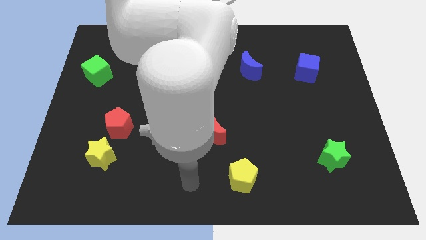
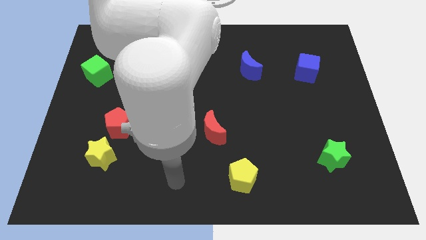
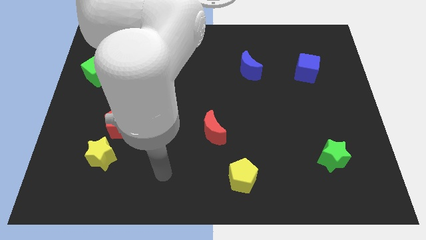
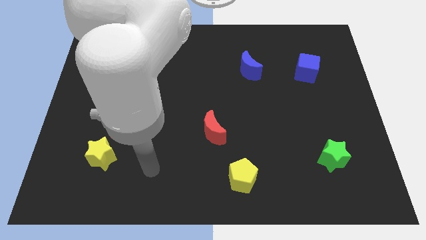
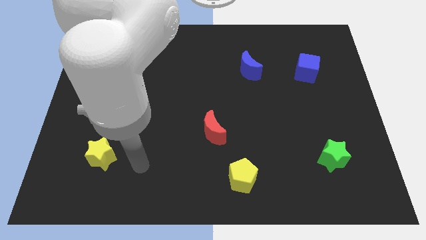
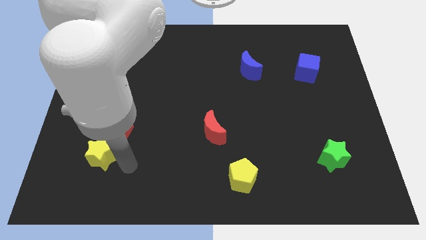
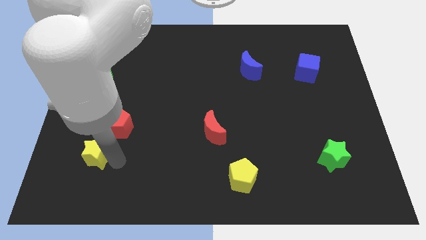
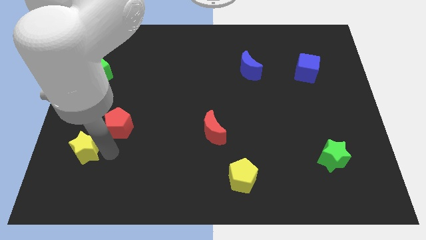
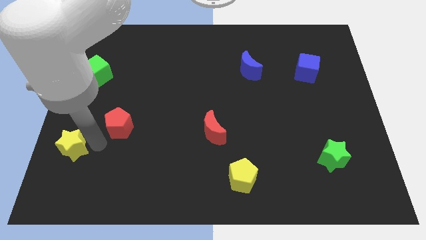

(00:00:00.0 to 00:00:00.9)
move the red pentagon away from the yellow star

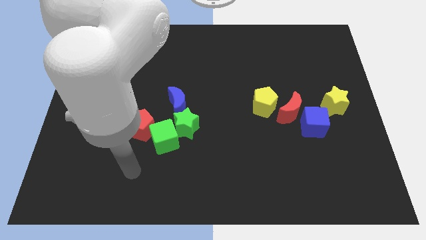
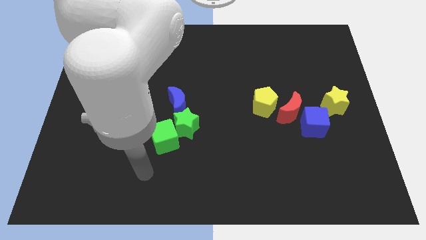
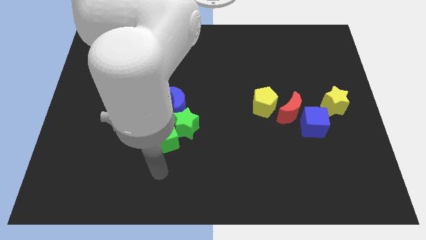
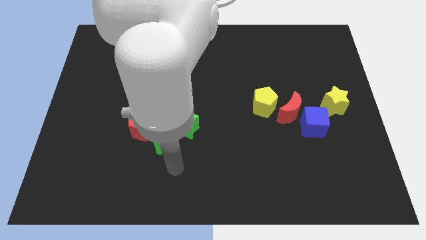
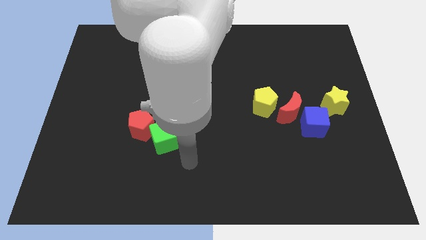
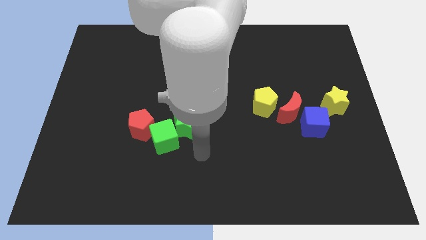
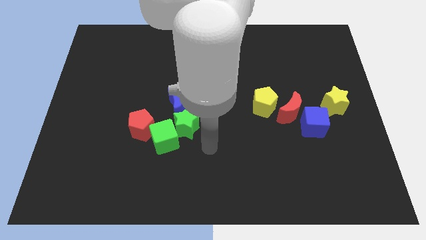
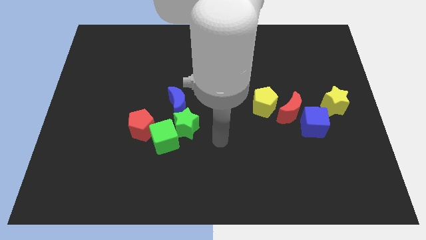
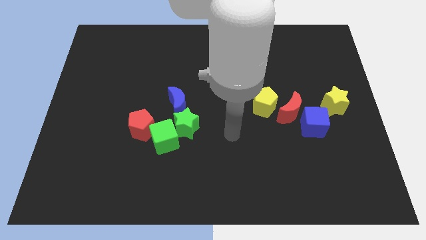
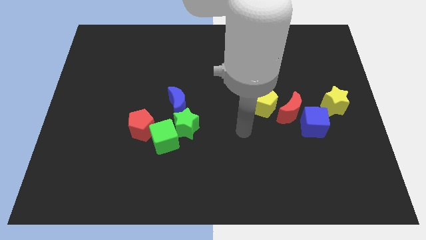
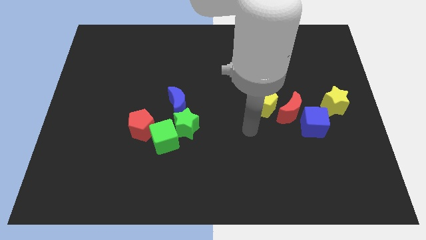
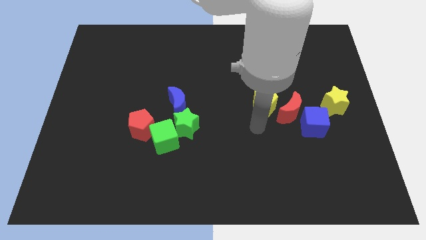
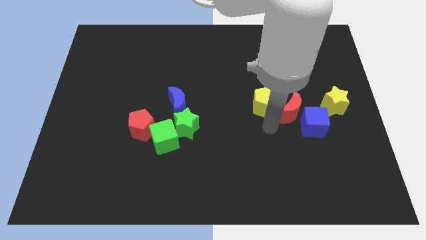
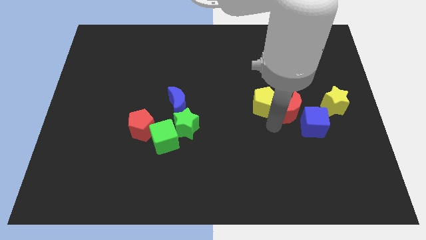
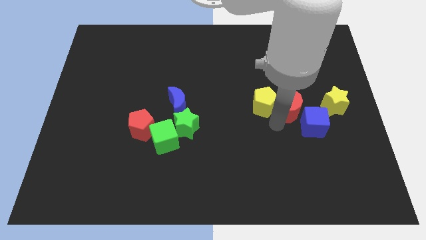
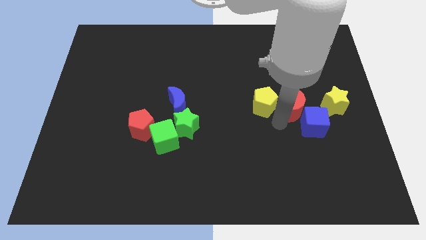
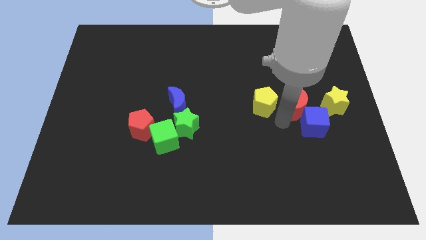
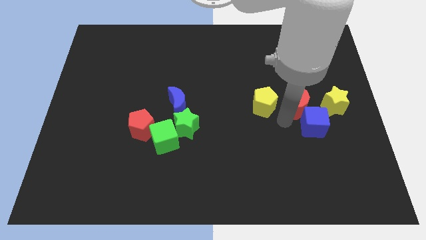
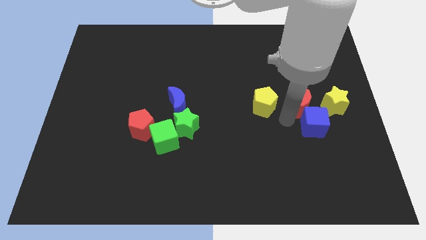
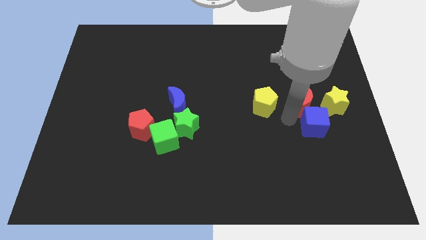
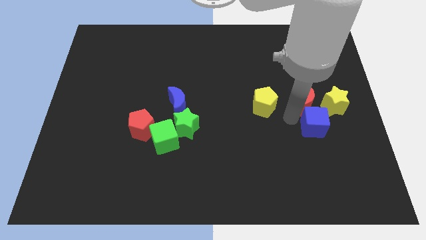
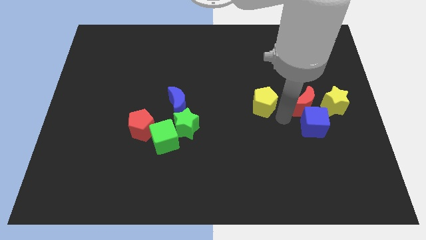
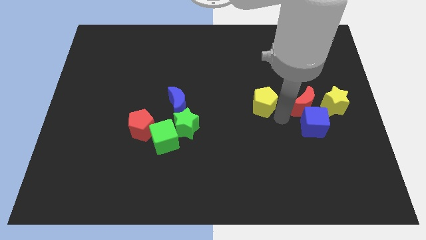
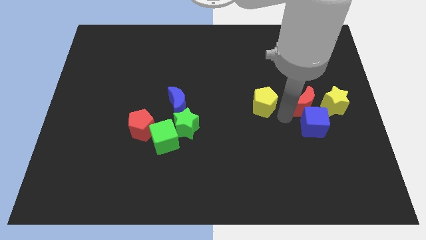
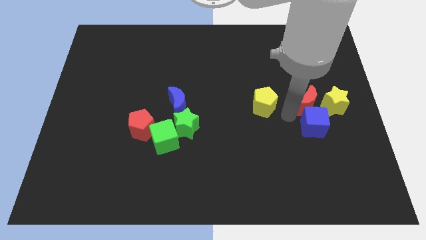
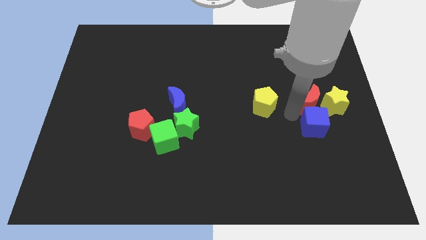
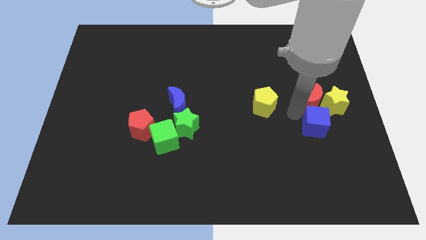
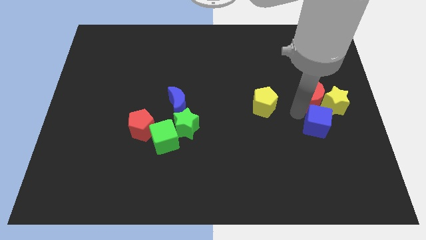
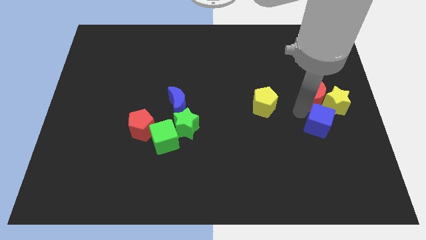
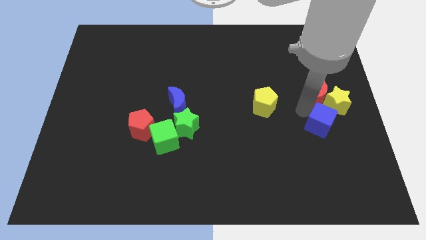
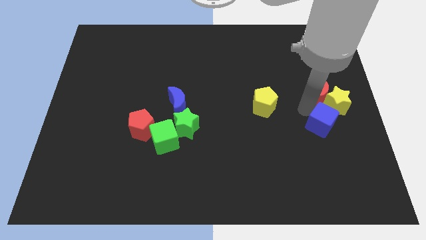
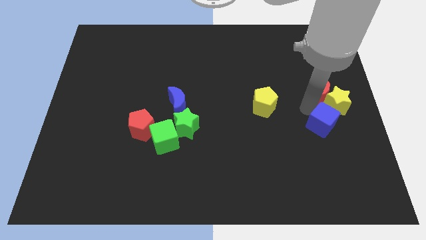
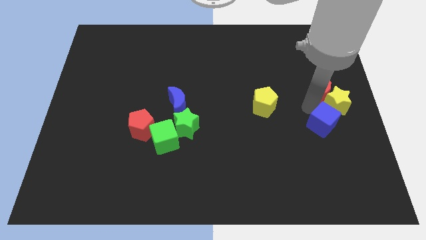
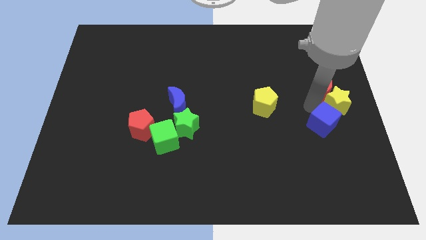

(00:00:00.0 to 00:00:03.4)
move the red moon away from the blue cube and yellow pentagon

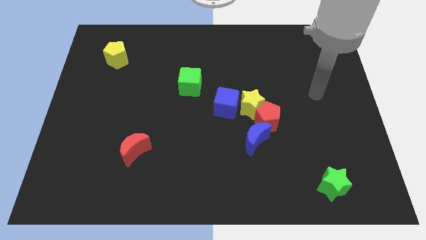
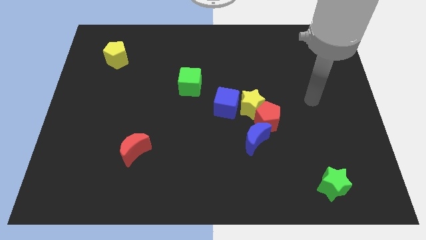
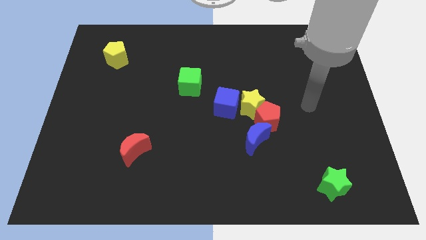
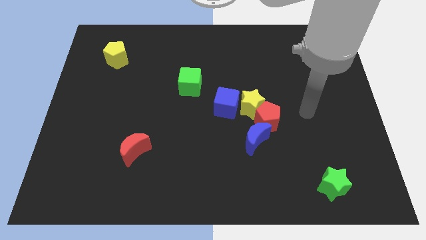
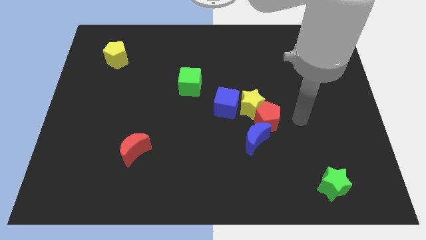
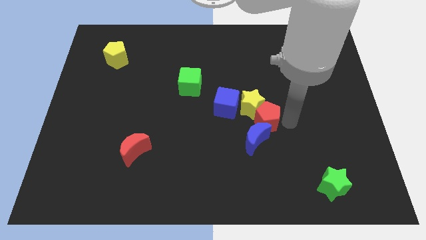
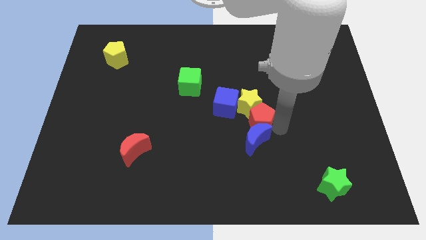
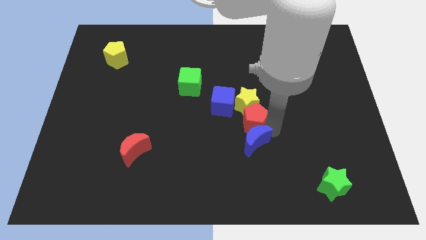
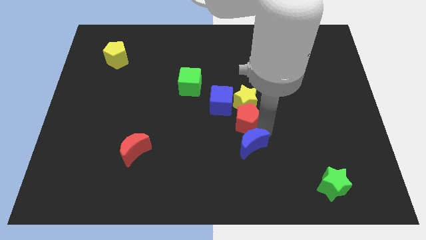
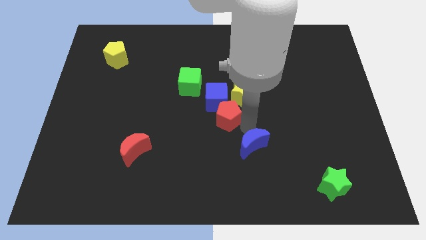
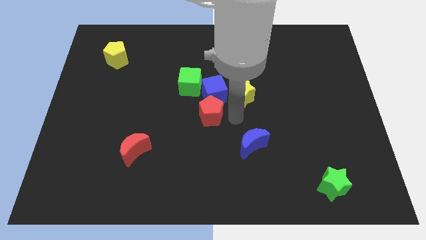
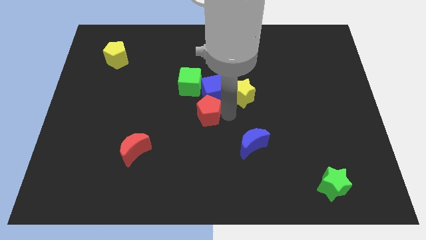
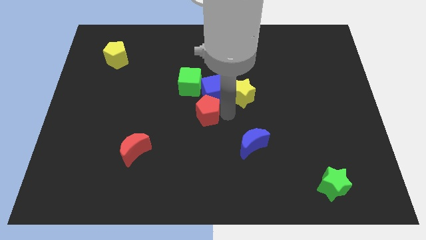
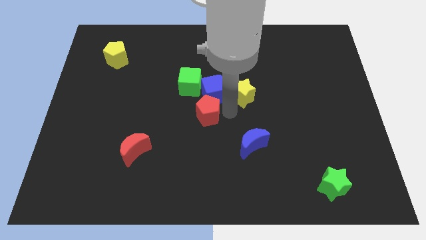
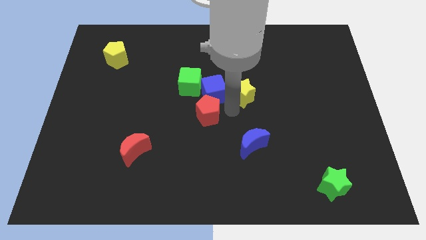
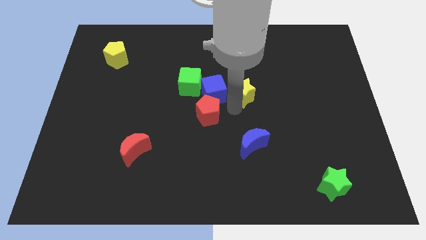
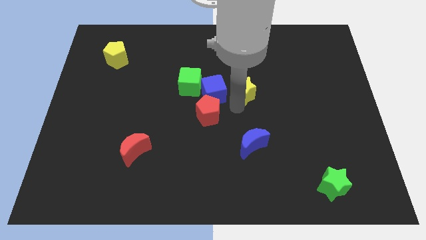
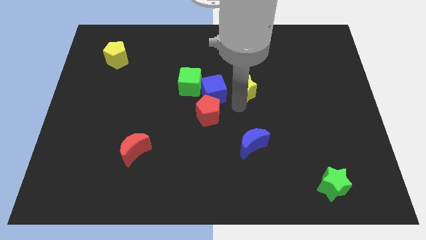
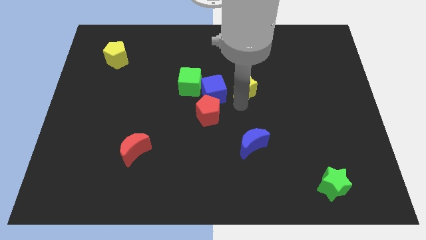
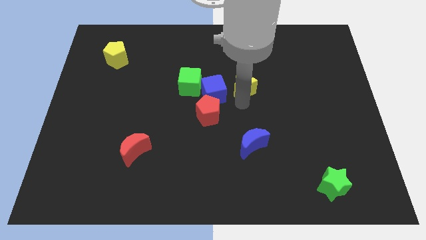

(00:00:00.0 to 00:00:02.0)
pull the yellow star apart from the clump

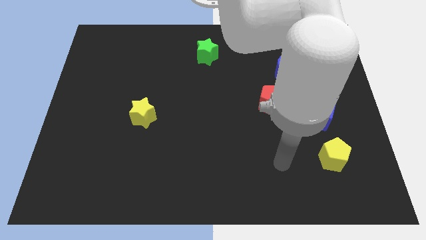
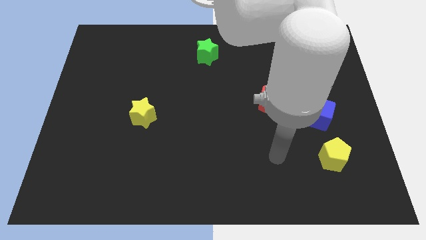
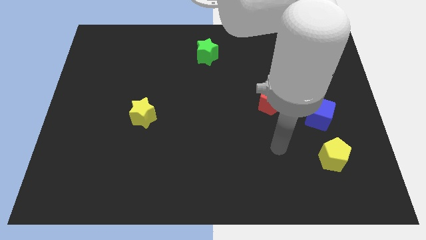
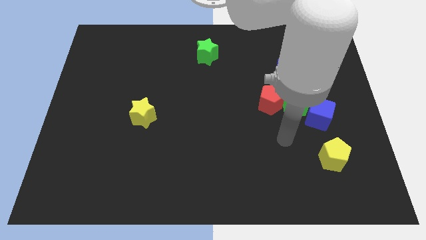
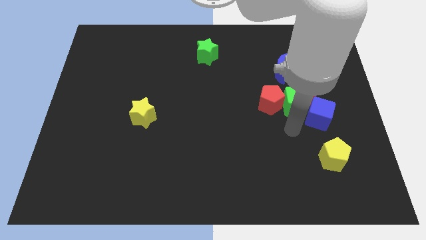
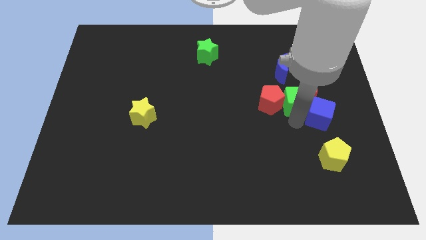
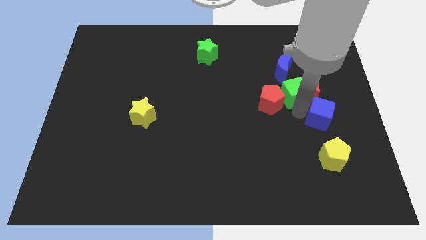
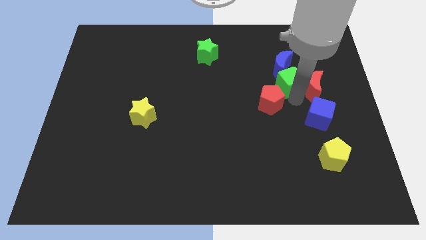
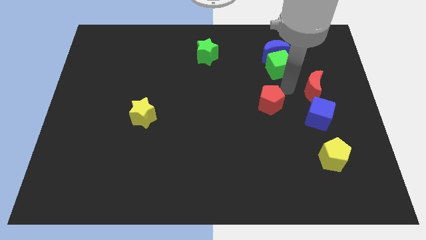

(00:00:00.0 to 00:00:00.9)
pull the red pentagon apart from the green cube

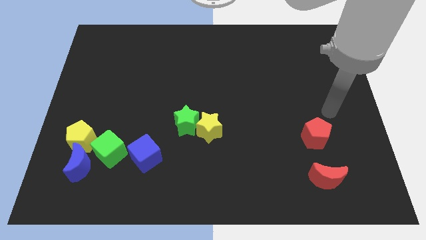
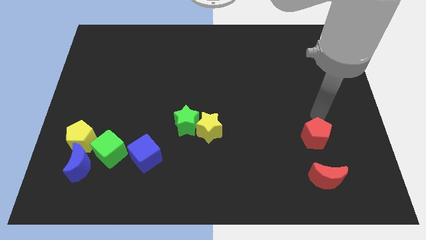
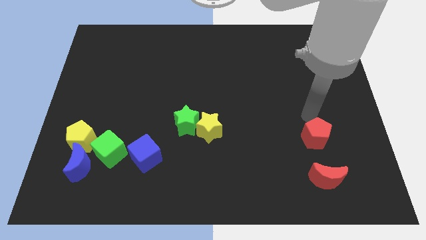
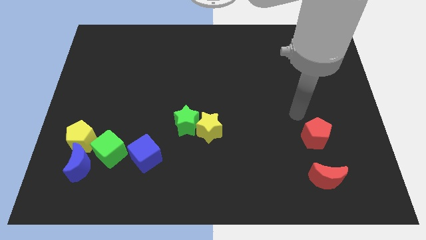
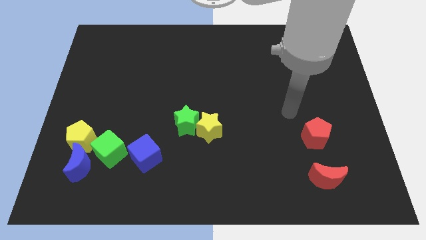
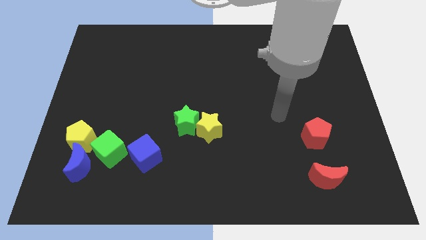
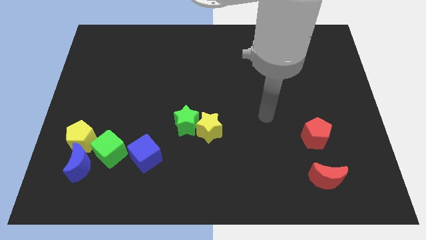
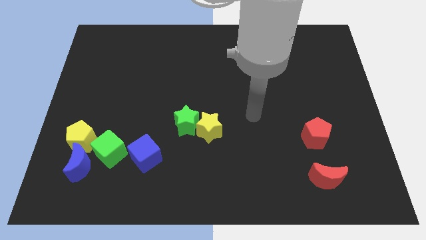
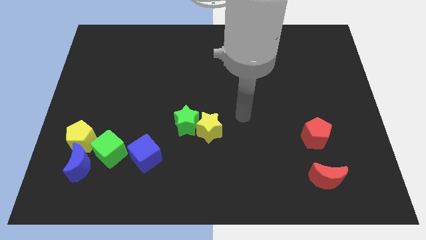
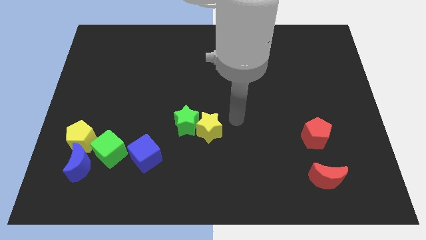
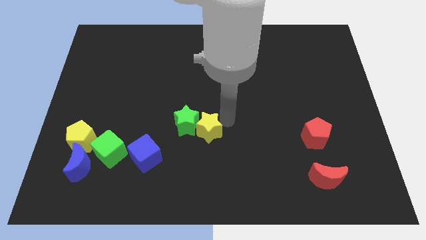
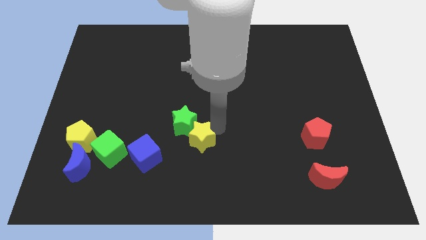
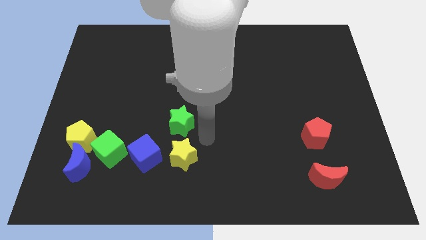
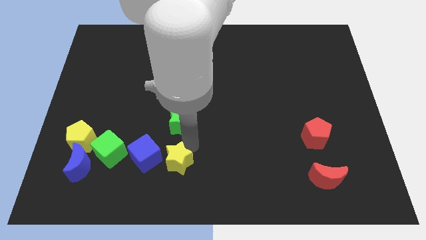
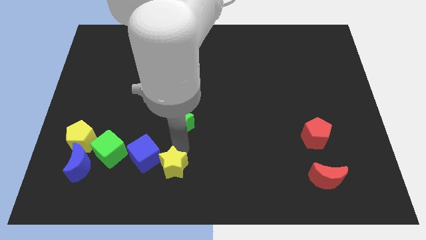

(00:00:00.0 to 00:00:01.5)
move the green star away from the yellow star

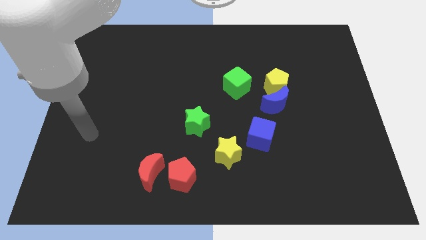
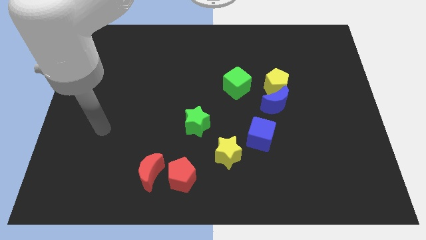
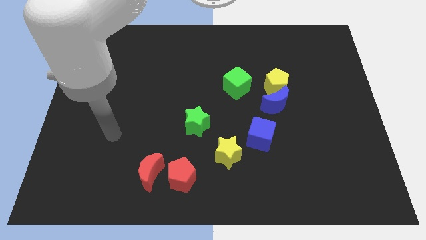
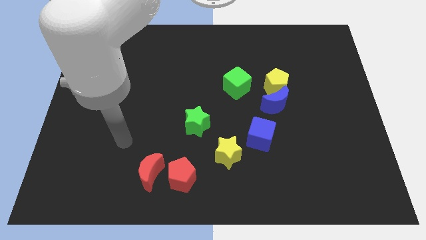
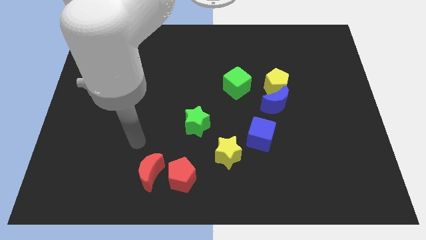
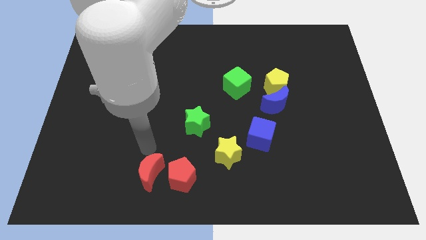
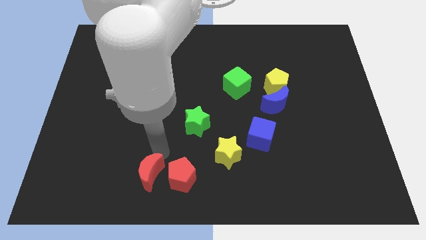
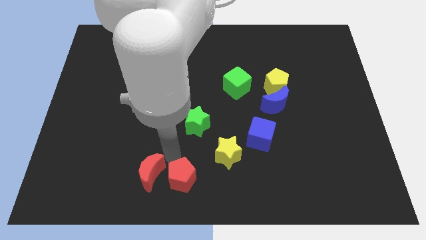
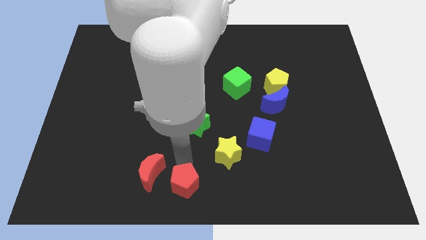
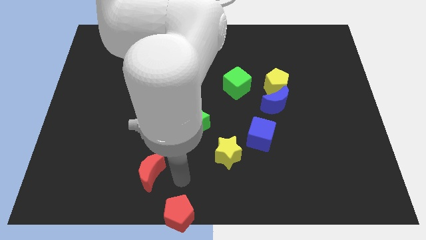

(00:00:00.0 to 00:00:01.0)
move the red moon away from the red pentagon
